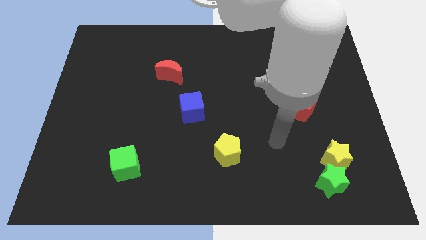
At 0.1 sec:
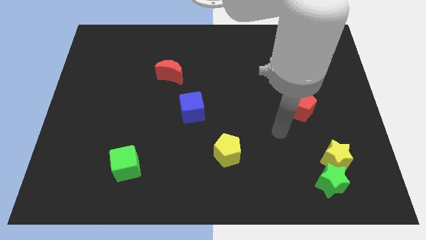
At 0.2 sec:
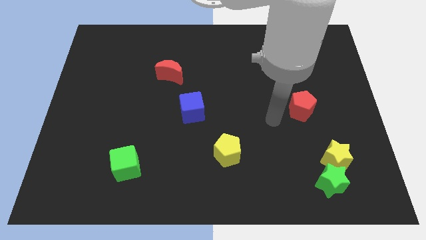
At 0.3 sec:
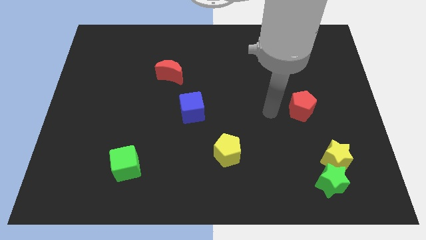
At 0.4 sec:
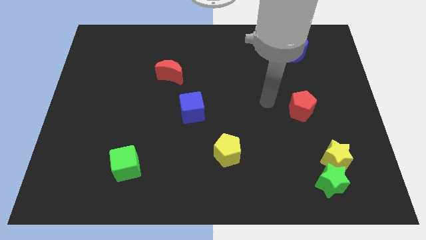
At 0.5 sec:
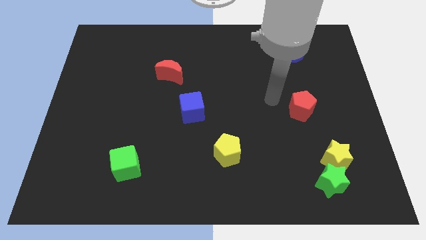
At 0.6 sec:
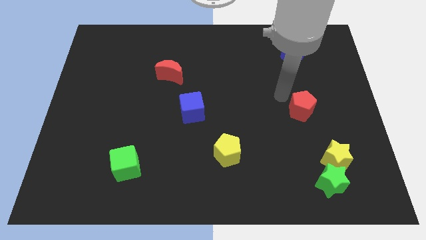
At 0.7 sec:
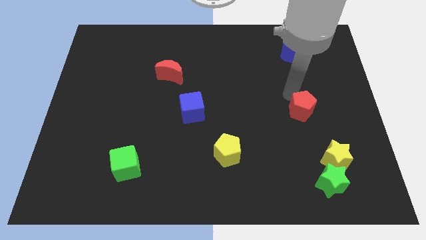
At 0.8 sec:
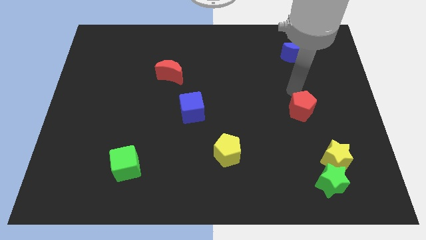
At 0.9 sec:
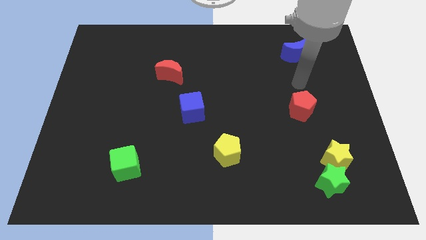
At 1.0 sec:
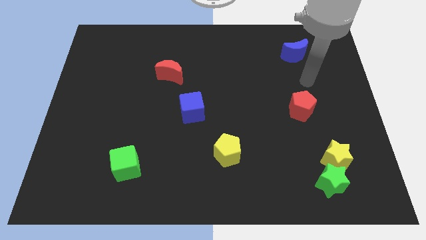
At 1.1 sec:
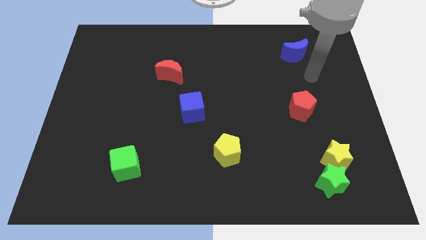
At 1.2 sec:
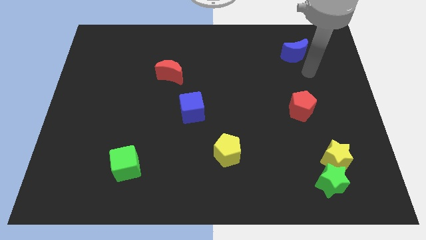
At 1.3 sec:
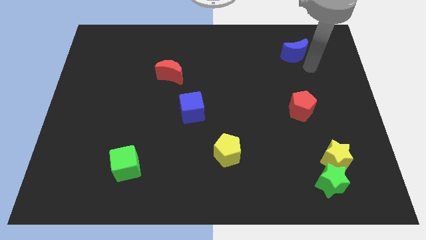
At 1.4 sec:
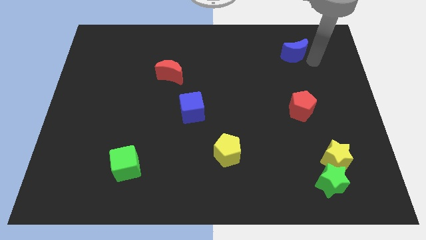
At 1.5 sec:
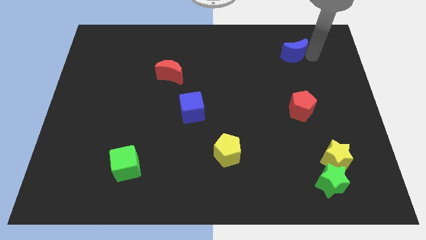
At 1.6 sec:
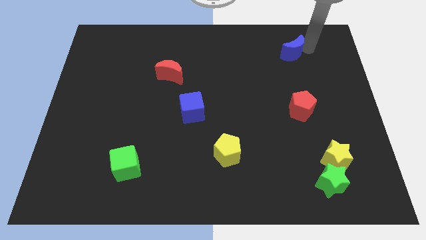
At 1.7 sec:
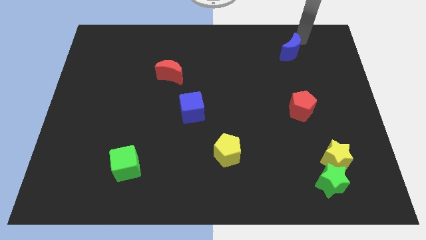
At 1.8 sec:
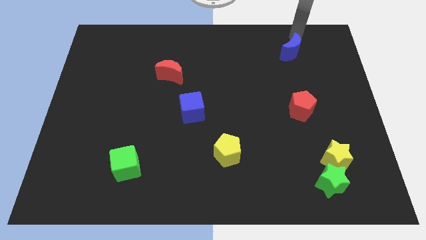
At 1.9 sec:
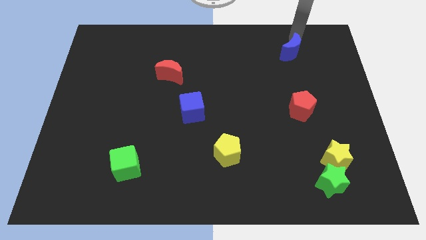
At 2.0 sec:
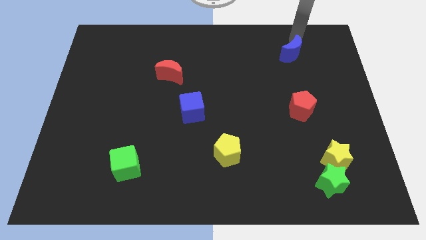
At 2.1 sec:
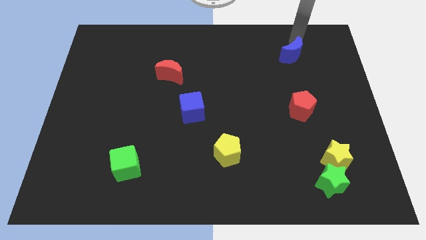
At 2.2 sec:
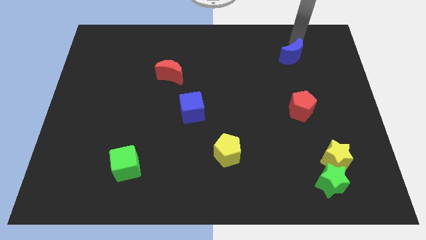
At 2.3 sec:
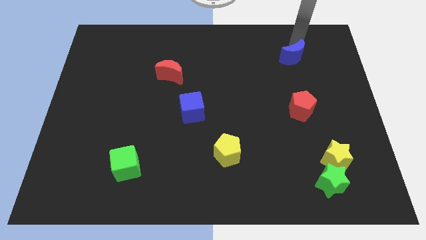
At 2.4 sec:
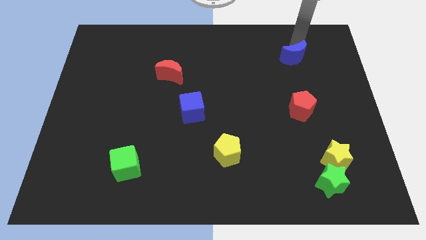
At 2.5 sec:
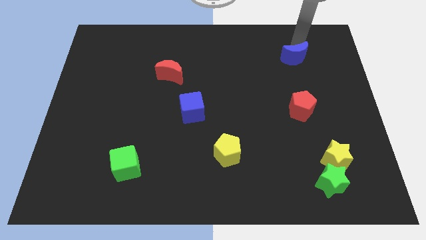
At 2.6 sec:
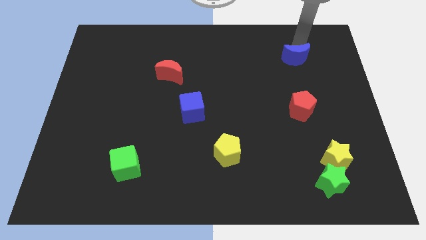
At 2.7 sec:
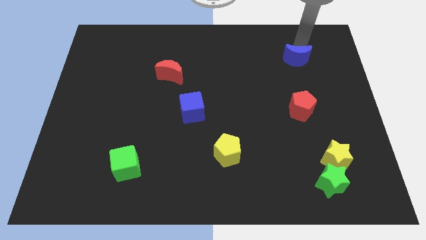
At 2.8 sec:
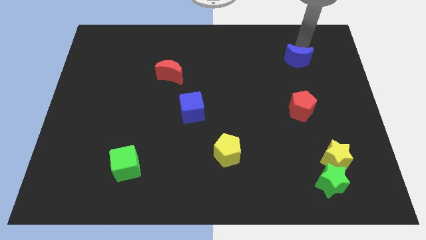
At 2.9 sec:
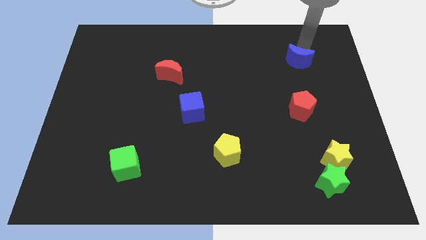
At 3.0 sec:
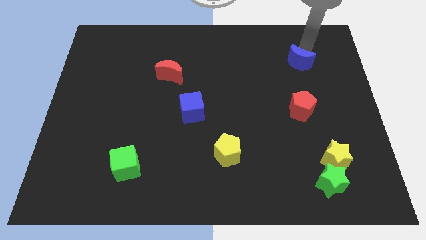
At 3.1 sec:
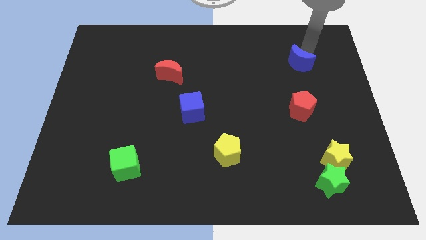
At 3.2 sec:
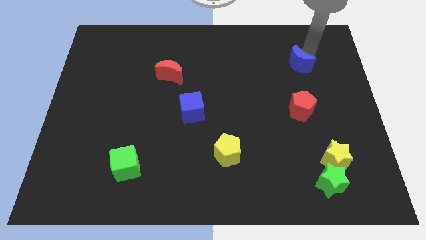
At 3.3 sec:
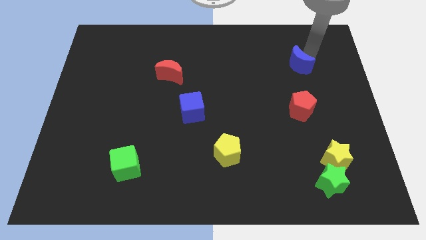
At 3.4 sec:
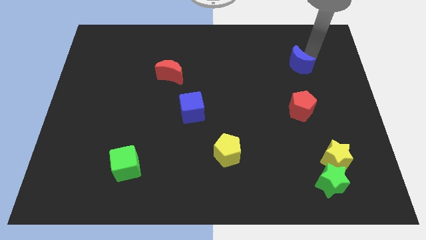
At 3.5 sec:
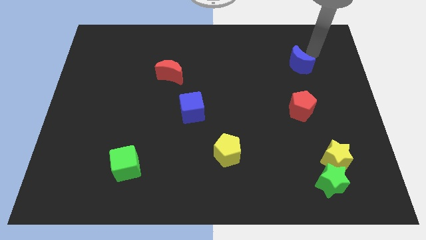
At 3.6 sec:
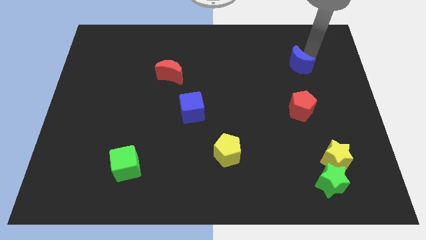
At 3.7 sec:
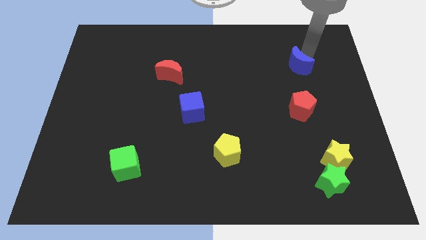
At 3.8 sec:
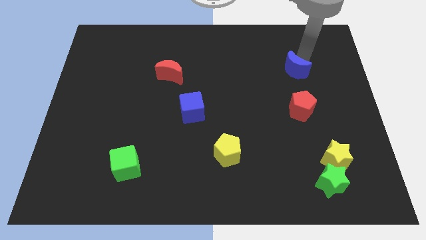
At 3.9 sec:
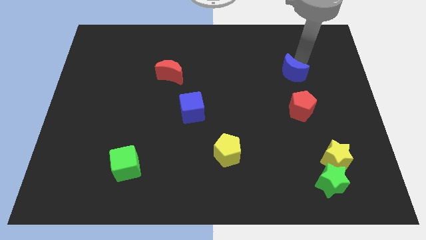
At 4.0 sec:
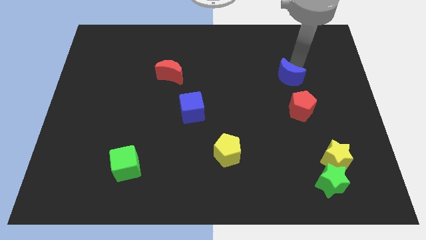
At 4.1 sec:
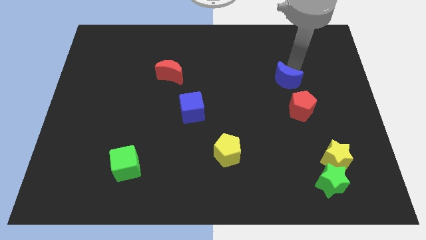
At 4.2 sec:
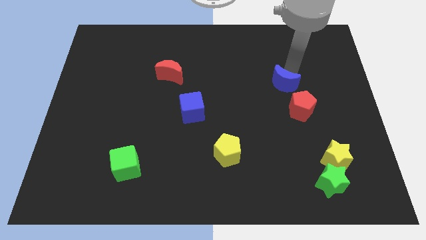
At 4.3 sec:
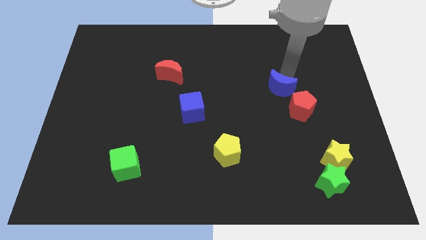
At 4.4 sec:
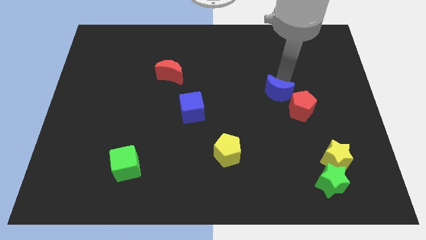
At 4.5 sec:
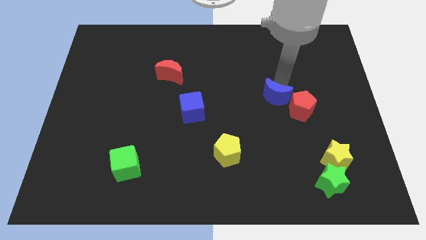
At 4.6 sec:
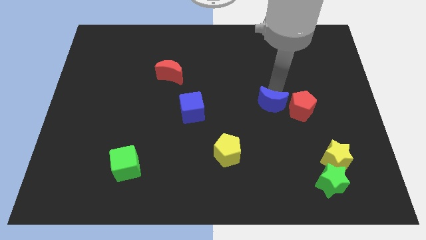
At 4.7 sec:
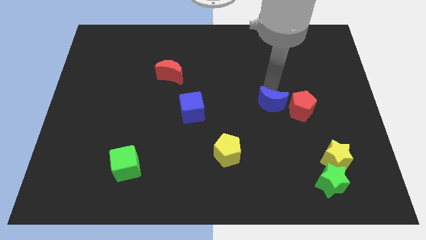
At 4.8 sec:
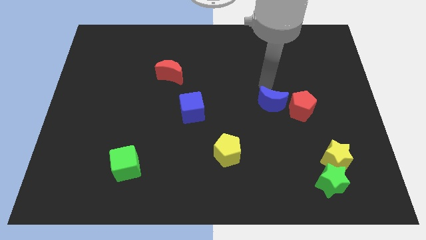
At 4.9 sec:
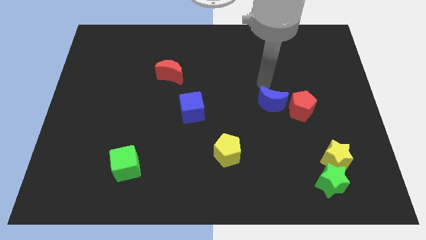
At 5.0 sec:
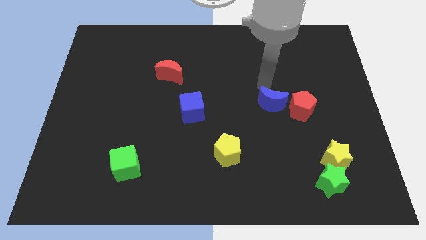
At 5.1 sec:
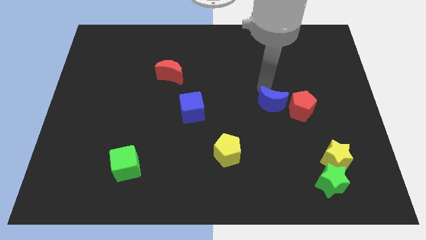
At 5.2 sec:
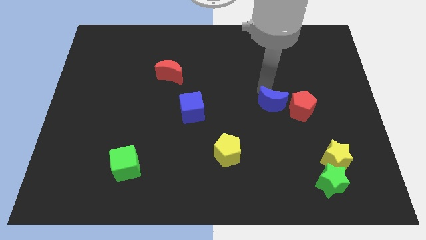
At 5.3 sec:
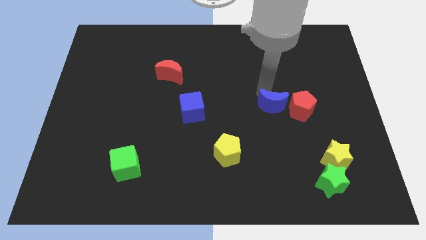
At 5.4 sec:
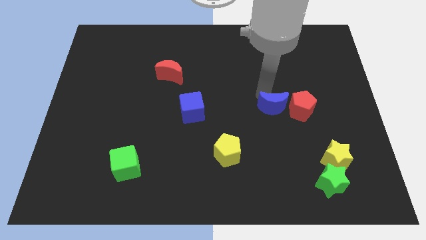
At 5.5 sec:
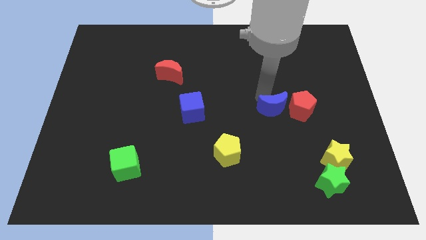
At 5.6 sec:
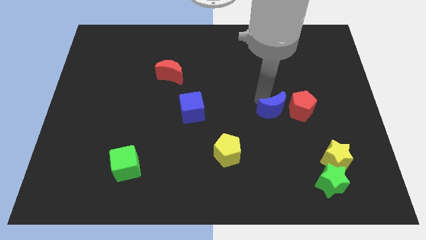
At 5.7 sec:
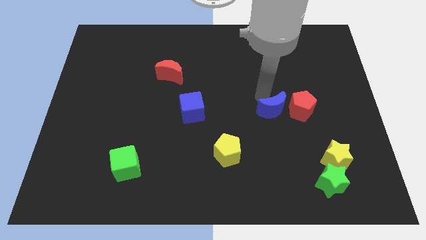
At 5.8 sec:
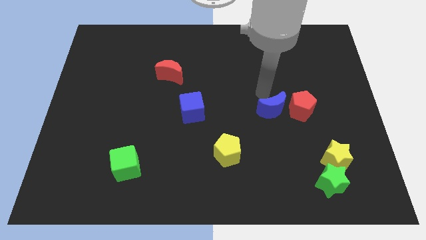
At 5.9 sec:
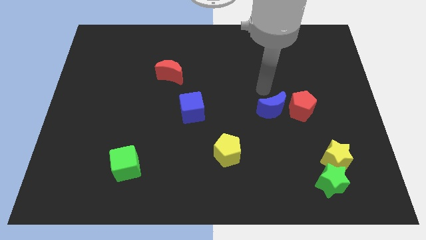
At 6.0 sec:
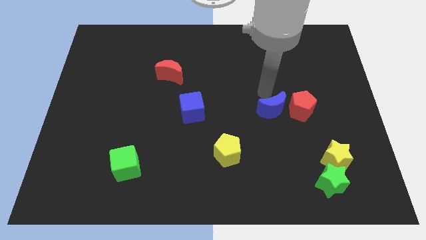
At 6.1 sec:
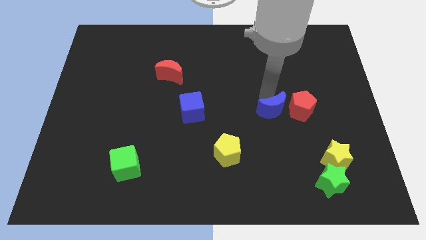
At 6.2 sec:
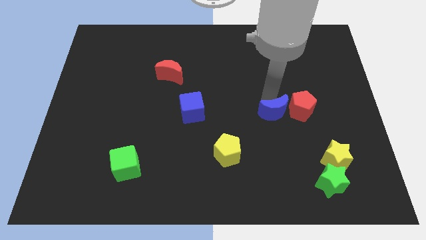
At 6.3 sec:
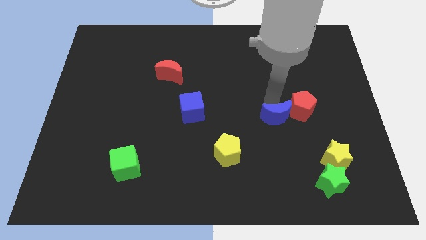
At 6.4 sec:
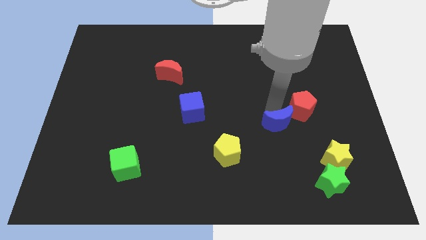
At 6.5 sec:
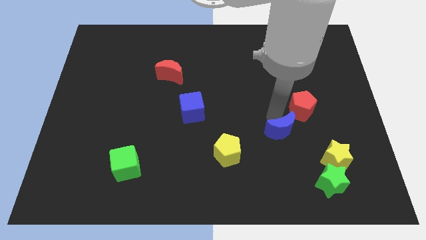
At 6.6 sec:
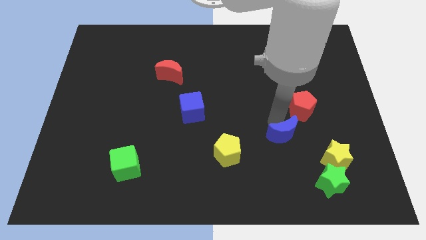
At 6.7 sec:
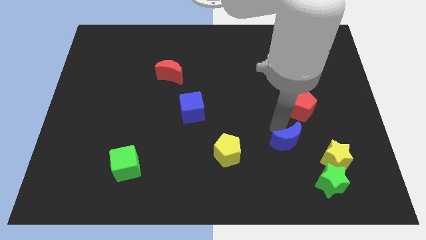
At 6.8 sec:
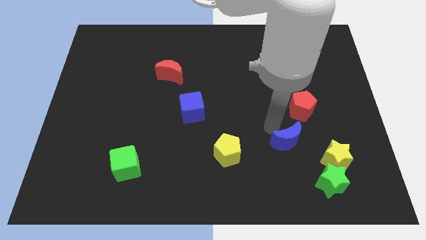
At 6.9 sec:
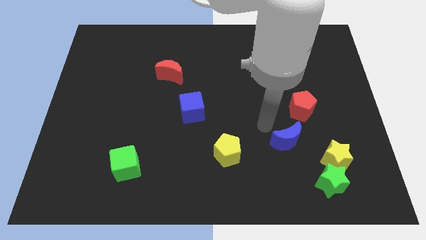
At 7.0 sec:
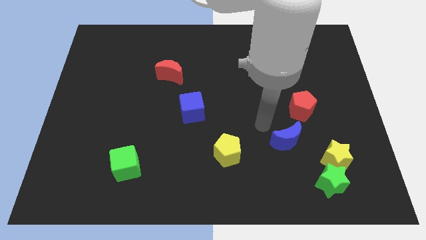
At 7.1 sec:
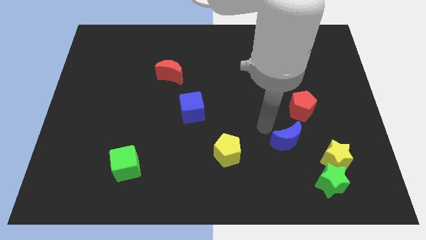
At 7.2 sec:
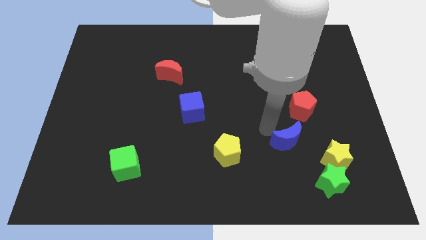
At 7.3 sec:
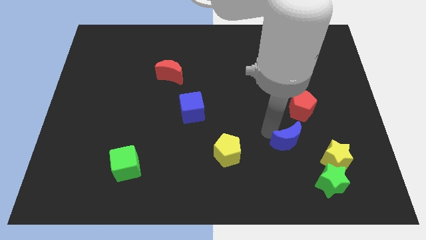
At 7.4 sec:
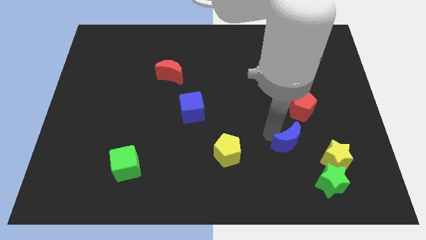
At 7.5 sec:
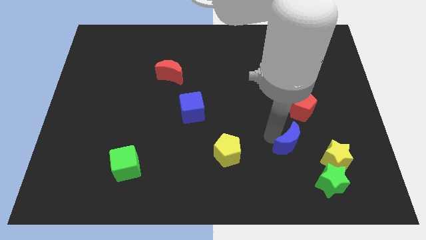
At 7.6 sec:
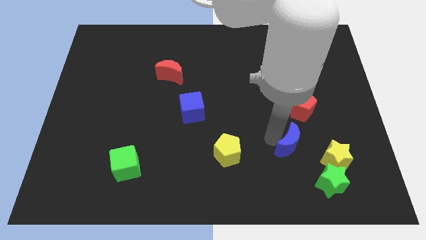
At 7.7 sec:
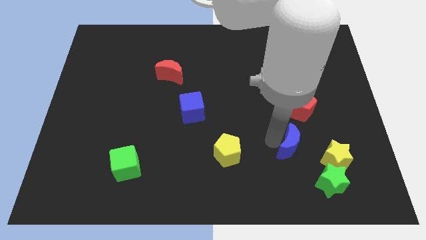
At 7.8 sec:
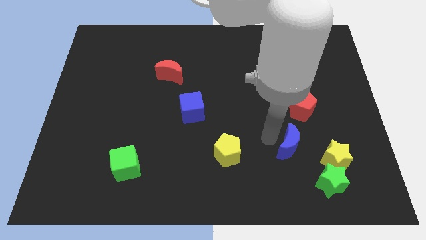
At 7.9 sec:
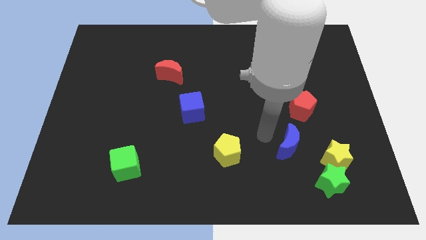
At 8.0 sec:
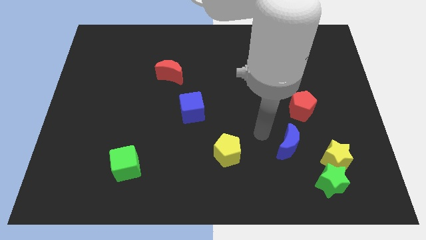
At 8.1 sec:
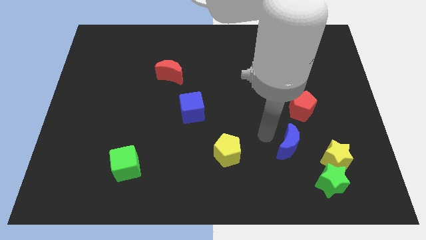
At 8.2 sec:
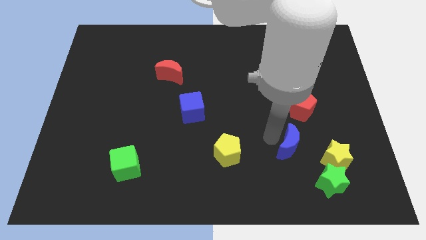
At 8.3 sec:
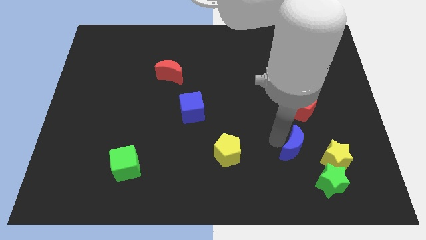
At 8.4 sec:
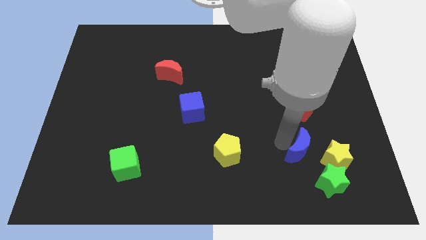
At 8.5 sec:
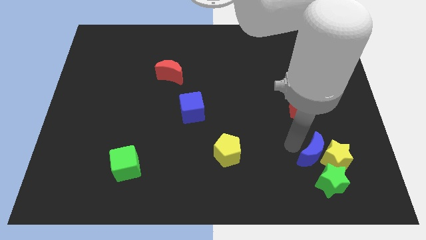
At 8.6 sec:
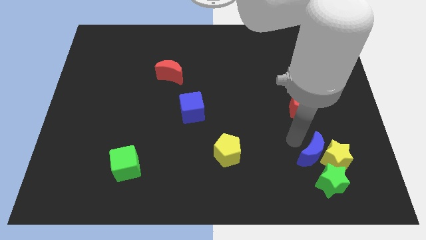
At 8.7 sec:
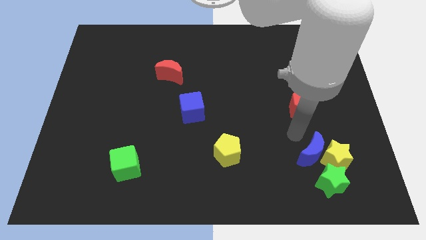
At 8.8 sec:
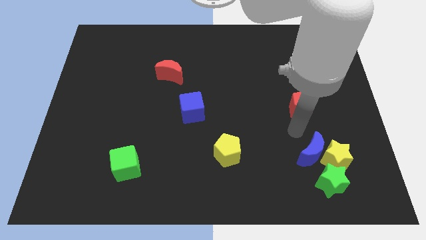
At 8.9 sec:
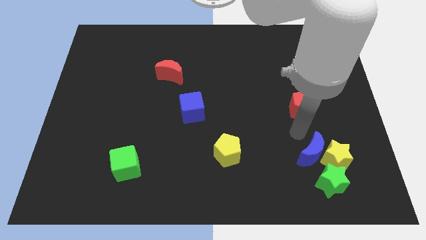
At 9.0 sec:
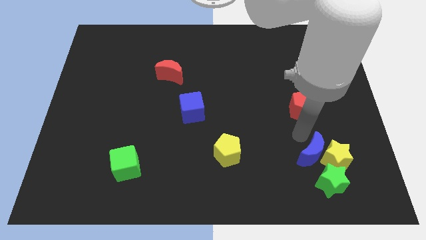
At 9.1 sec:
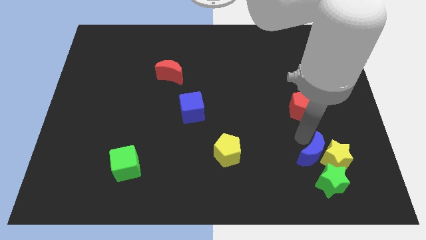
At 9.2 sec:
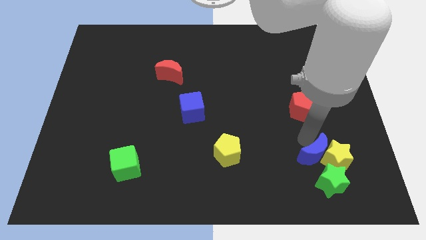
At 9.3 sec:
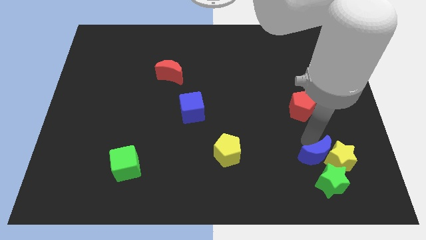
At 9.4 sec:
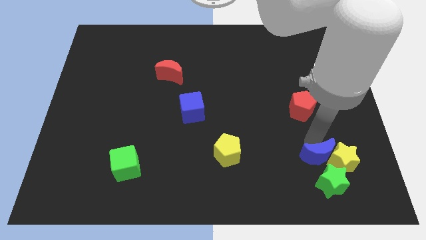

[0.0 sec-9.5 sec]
put the blue moon to the green star
